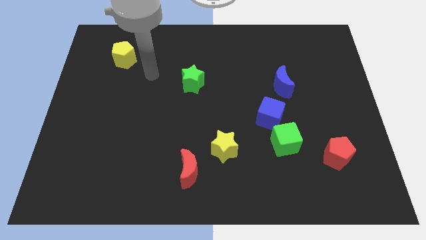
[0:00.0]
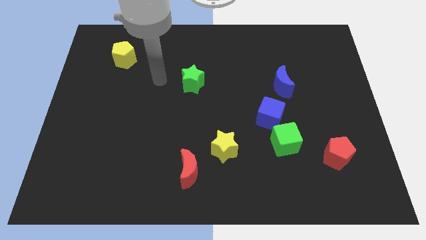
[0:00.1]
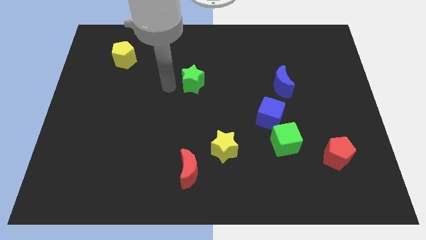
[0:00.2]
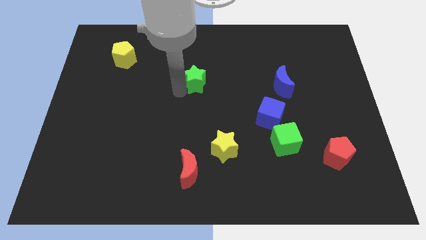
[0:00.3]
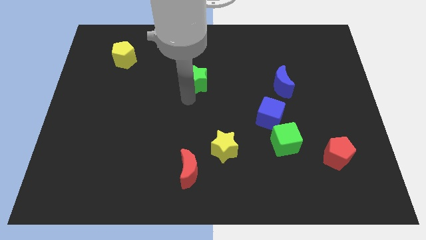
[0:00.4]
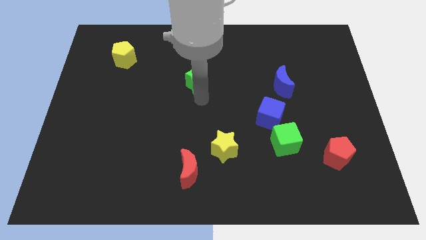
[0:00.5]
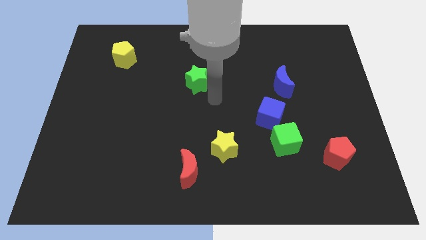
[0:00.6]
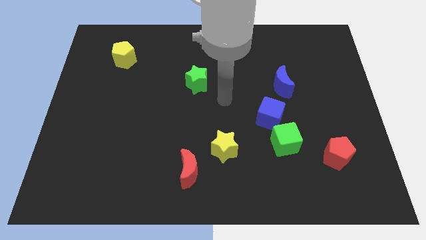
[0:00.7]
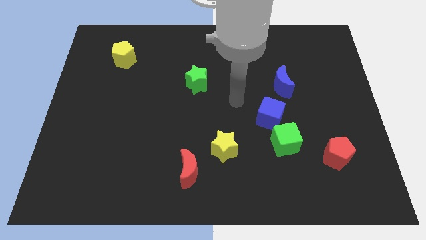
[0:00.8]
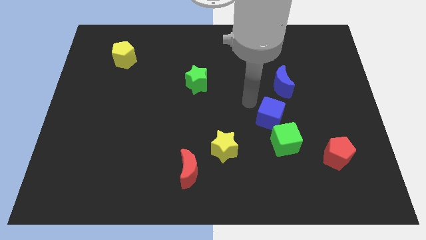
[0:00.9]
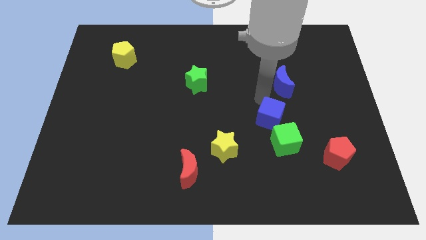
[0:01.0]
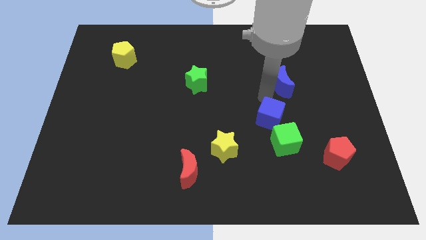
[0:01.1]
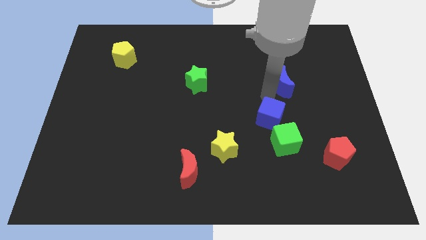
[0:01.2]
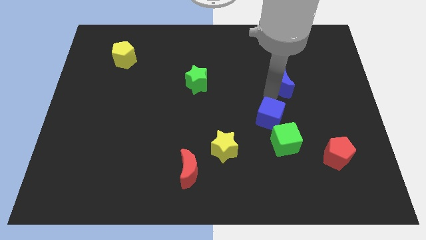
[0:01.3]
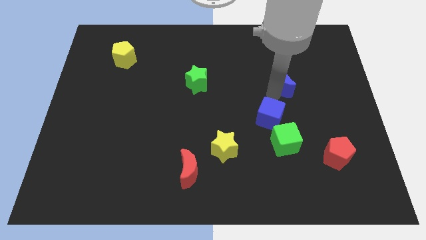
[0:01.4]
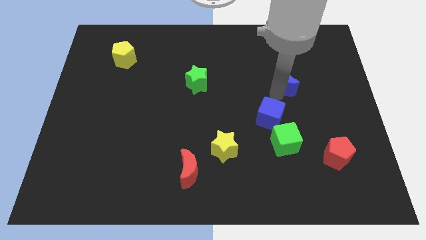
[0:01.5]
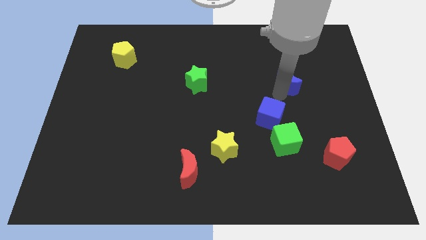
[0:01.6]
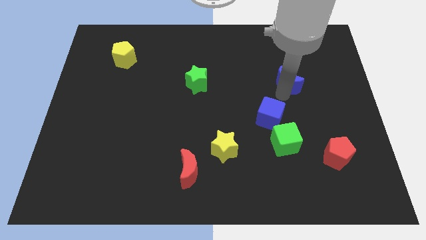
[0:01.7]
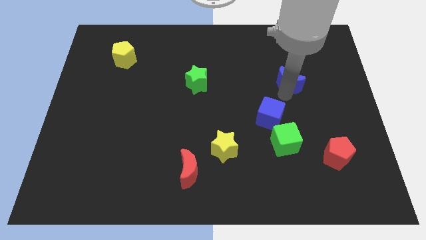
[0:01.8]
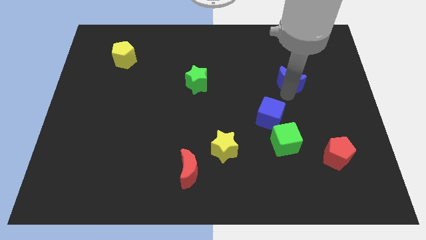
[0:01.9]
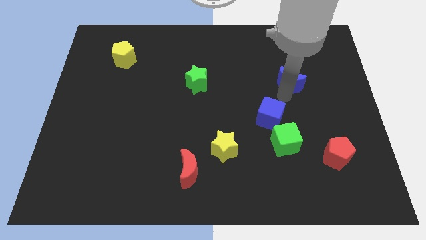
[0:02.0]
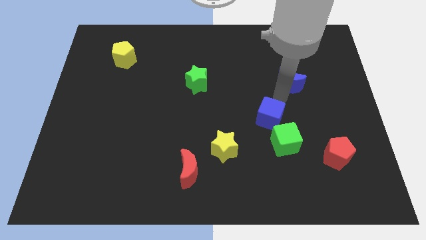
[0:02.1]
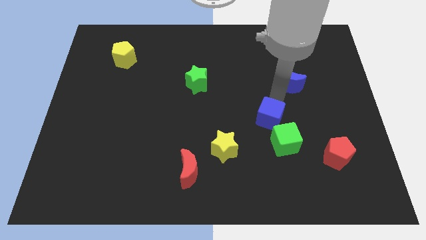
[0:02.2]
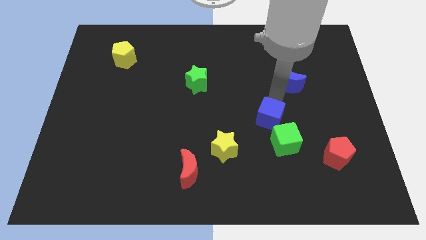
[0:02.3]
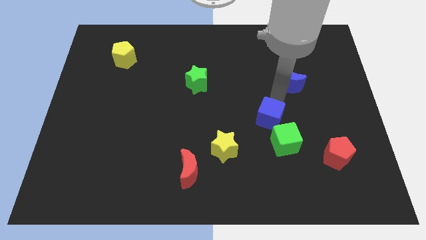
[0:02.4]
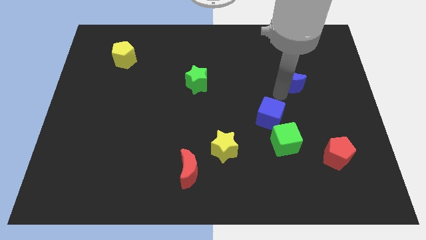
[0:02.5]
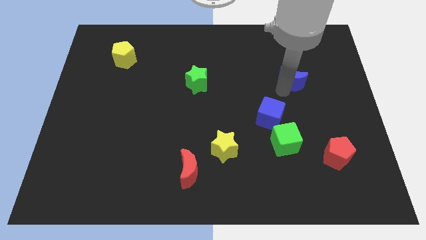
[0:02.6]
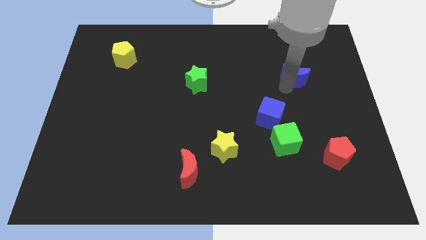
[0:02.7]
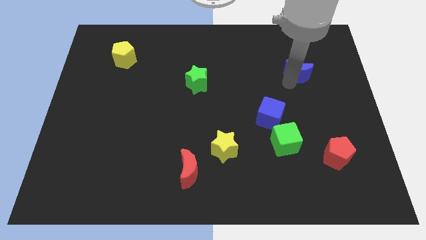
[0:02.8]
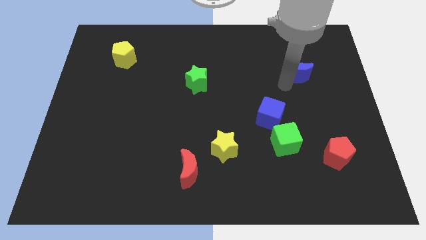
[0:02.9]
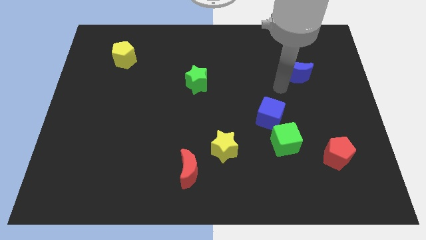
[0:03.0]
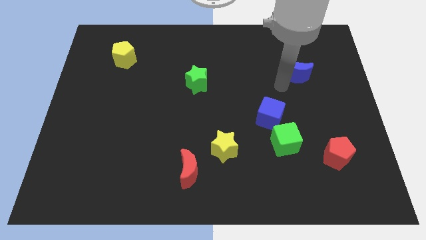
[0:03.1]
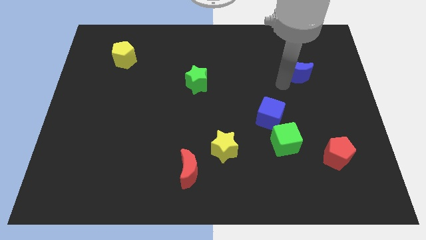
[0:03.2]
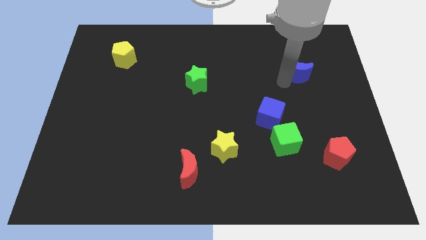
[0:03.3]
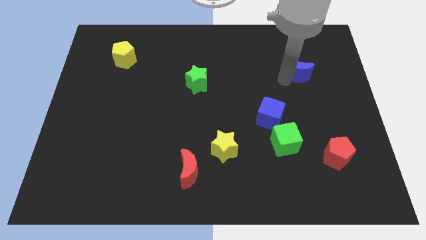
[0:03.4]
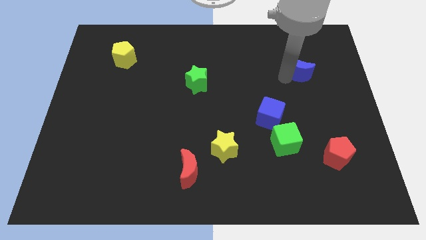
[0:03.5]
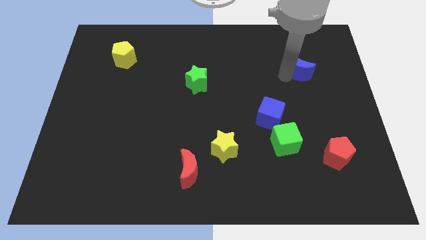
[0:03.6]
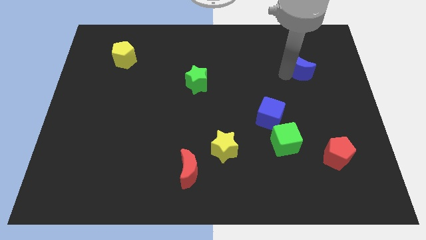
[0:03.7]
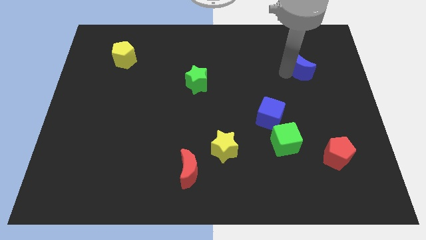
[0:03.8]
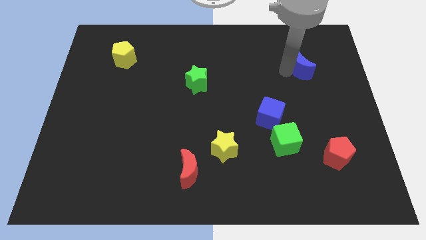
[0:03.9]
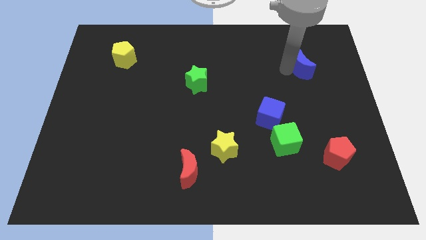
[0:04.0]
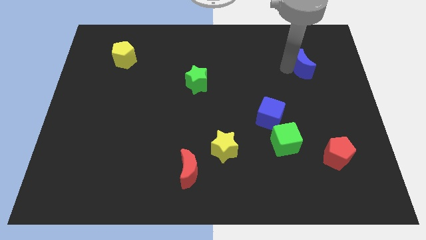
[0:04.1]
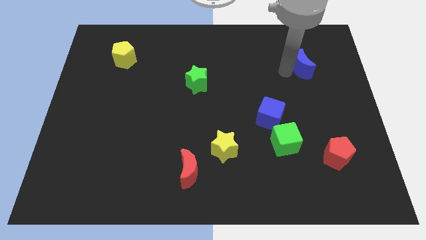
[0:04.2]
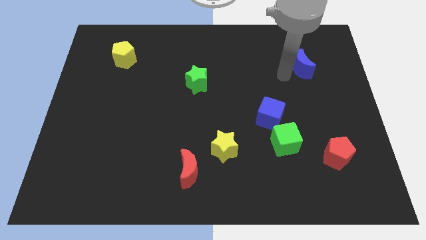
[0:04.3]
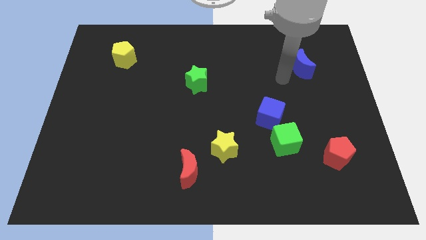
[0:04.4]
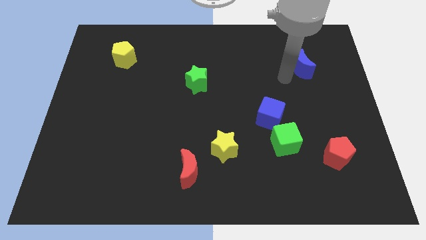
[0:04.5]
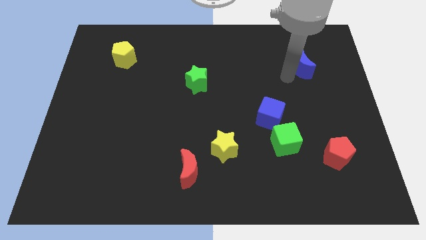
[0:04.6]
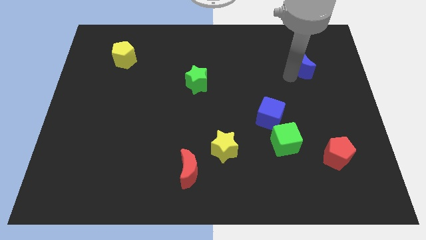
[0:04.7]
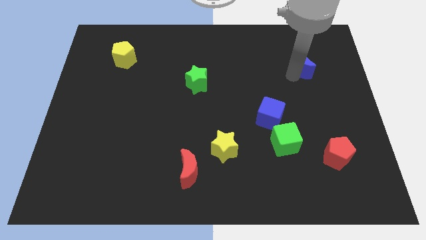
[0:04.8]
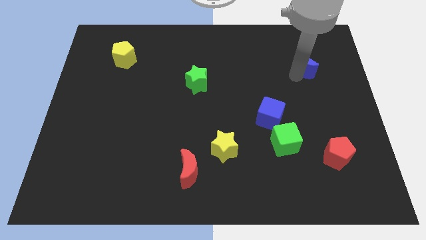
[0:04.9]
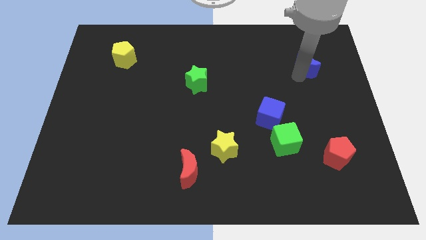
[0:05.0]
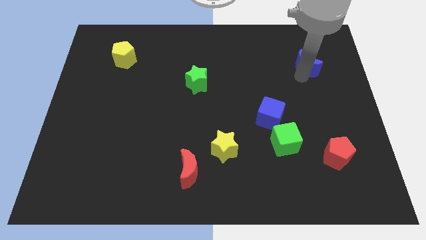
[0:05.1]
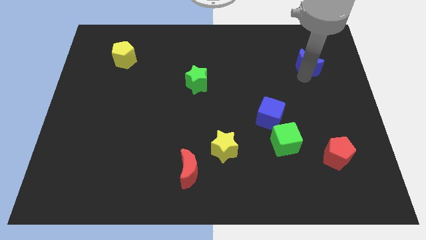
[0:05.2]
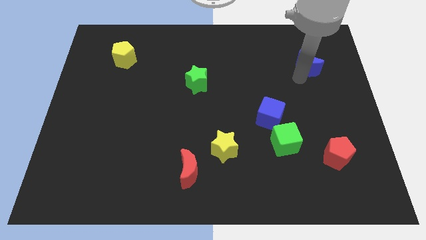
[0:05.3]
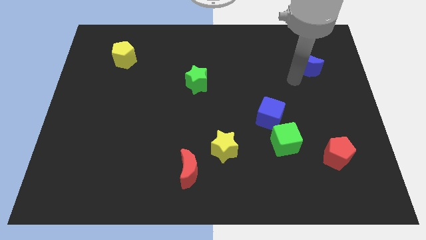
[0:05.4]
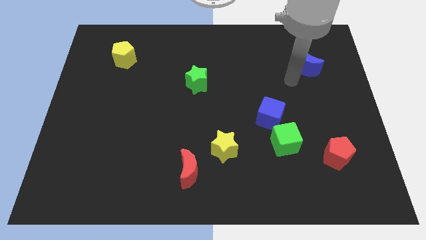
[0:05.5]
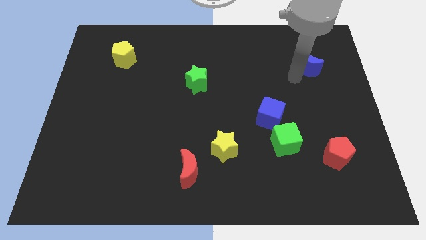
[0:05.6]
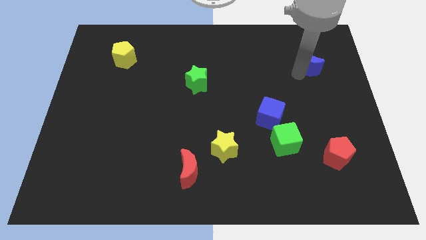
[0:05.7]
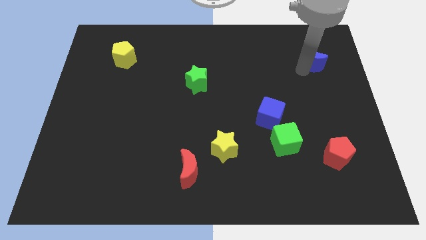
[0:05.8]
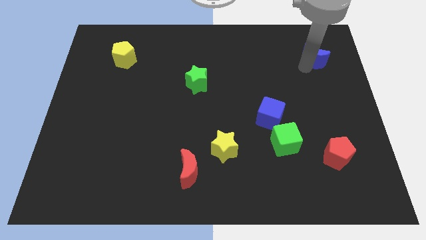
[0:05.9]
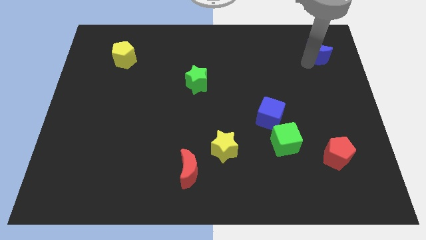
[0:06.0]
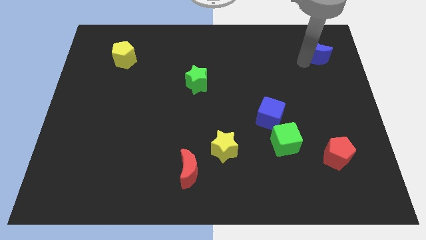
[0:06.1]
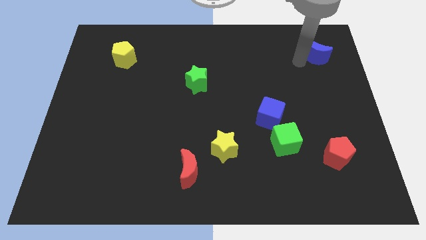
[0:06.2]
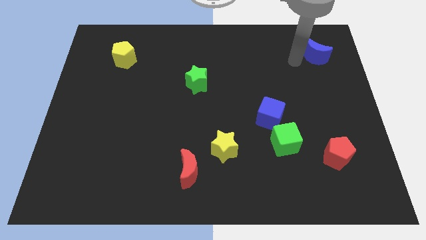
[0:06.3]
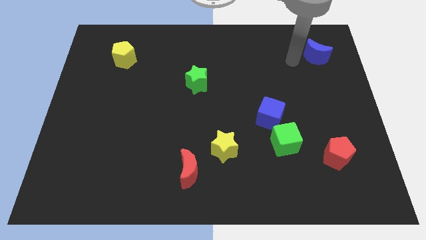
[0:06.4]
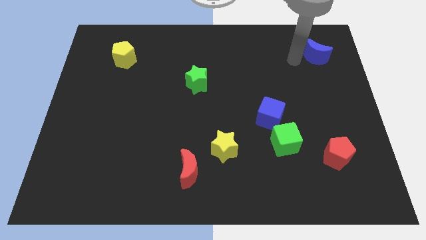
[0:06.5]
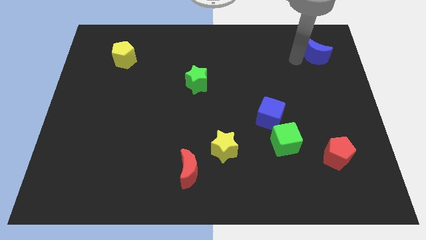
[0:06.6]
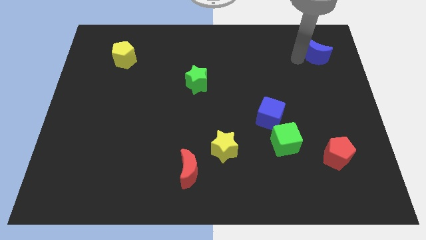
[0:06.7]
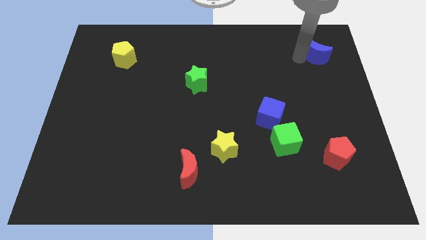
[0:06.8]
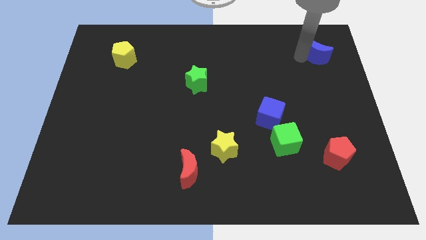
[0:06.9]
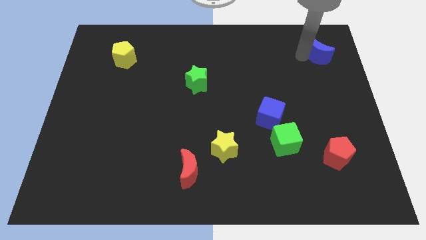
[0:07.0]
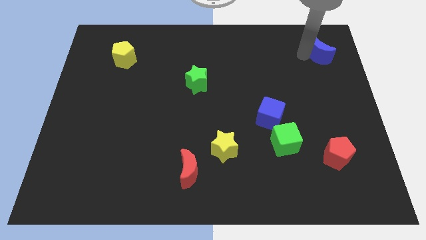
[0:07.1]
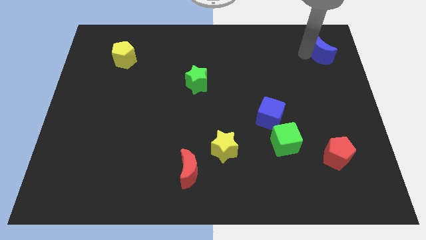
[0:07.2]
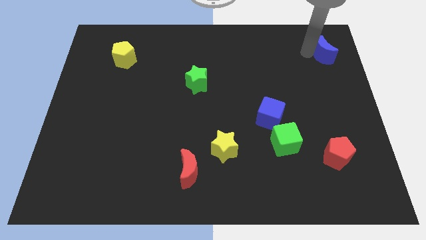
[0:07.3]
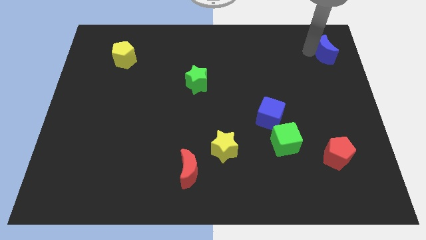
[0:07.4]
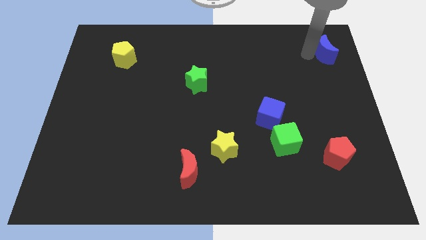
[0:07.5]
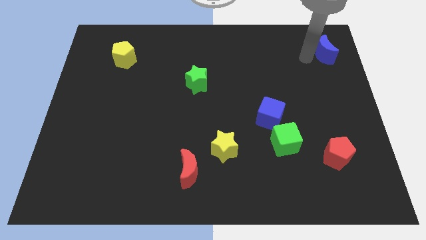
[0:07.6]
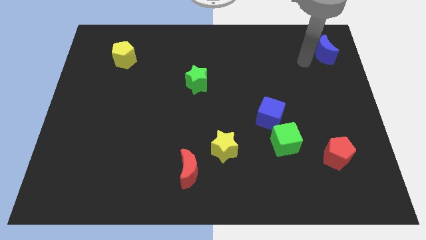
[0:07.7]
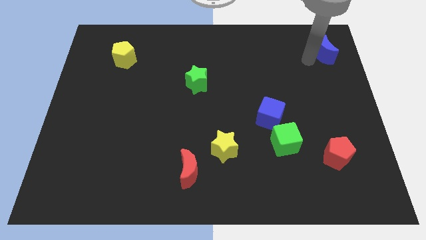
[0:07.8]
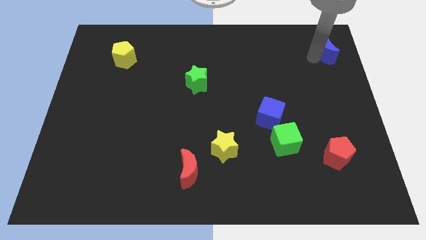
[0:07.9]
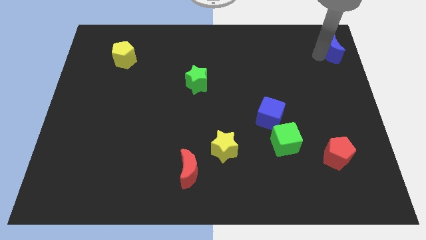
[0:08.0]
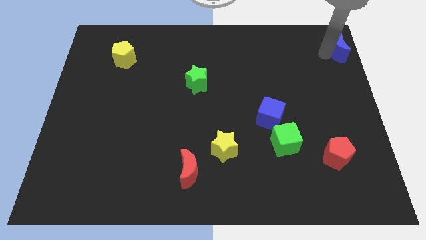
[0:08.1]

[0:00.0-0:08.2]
push the blue moon to the top right of the board
